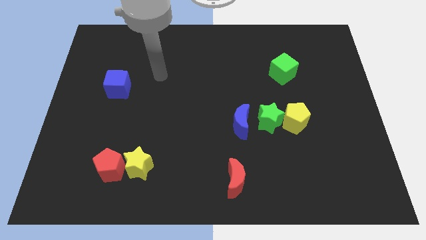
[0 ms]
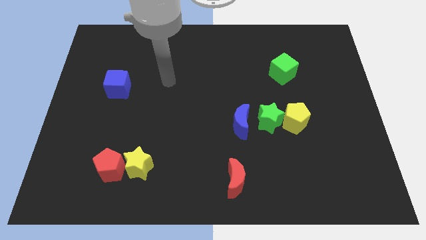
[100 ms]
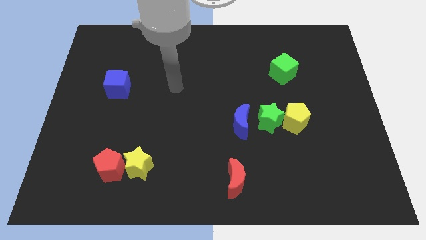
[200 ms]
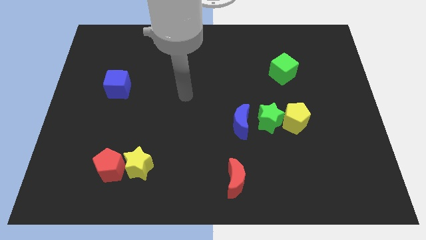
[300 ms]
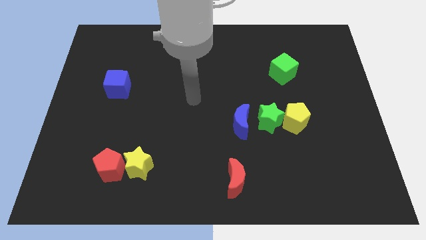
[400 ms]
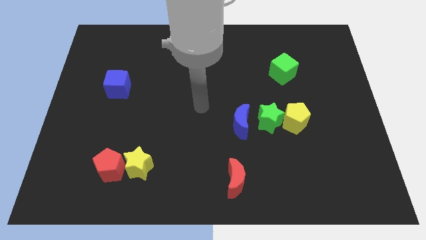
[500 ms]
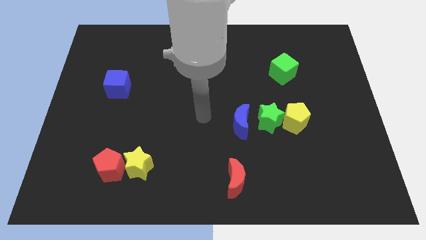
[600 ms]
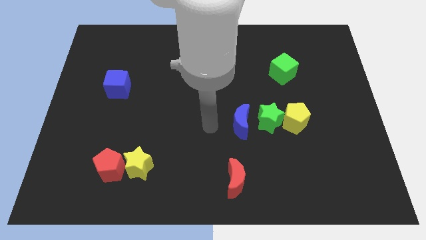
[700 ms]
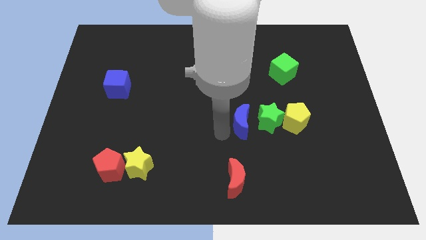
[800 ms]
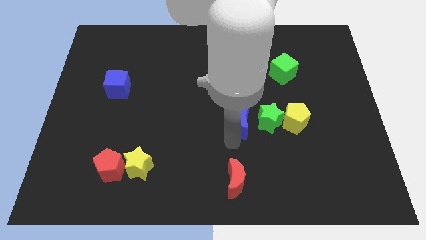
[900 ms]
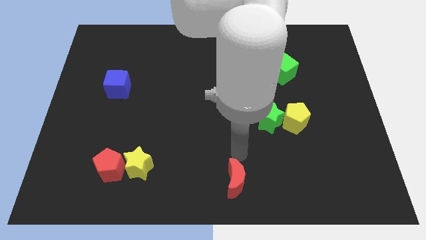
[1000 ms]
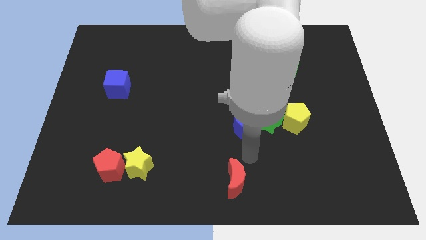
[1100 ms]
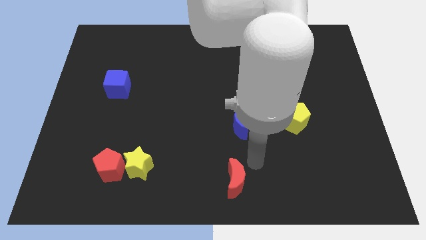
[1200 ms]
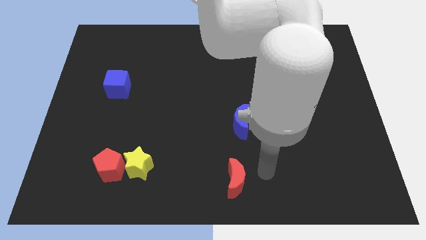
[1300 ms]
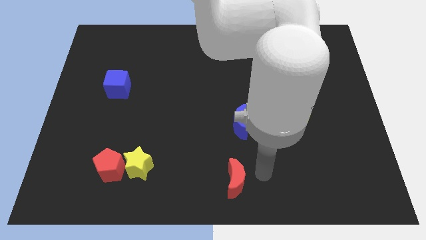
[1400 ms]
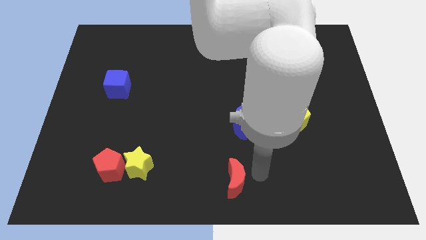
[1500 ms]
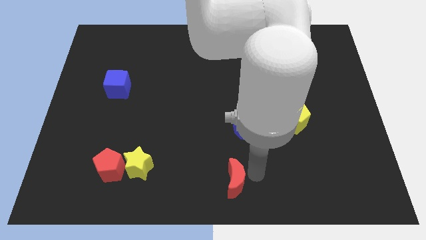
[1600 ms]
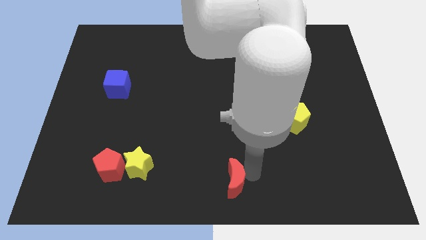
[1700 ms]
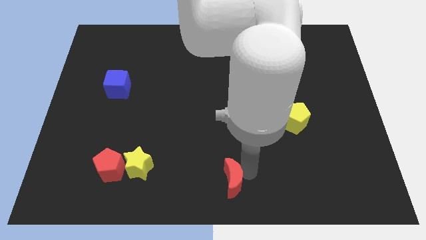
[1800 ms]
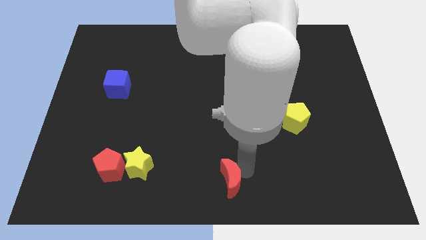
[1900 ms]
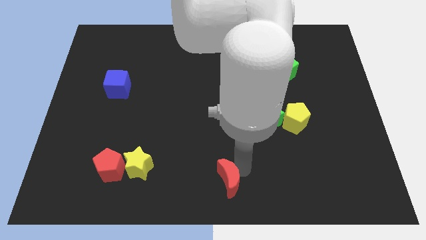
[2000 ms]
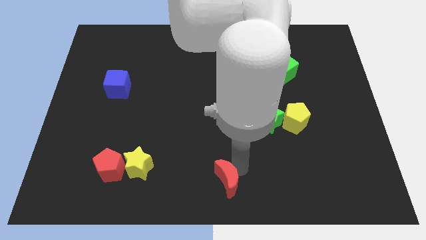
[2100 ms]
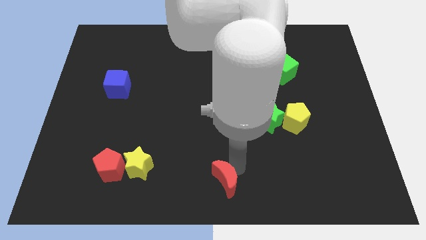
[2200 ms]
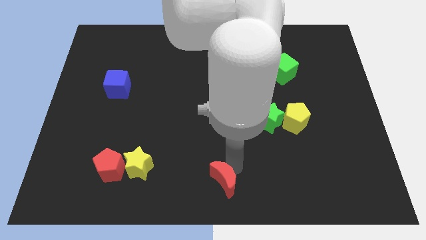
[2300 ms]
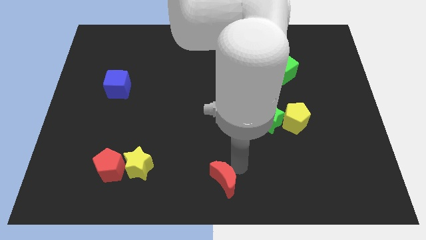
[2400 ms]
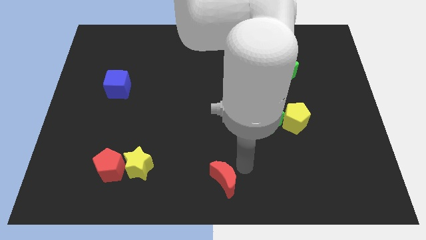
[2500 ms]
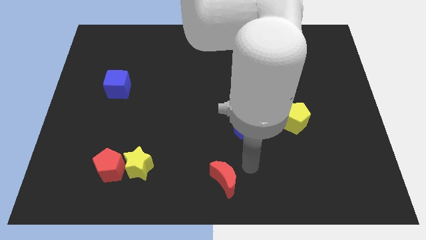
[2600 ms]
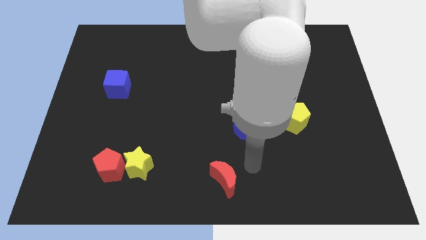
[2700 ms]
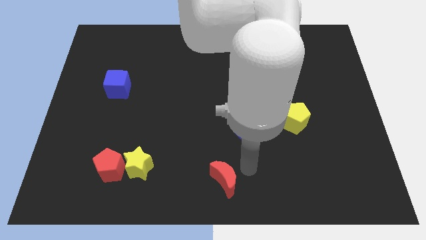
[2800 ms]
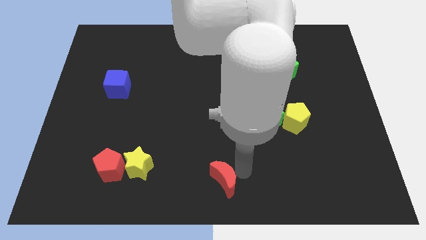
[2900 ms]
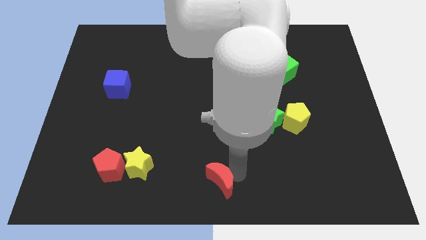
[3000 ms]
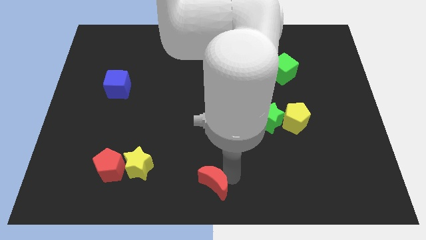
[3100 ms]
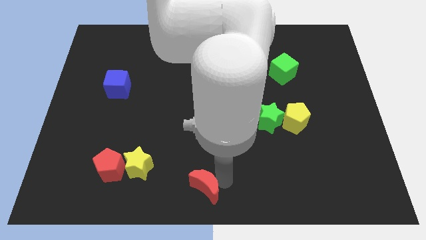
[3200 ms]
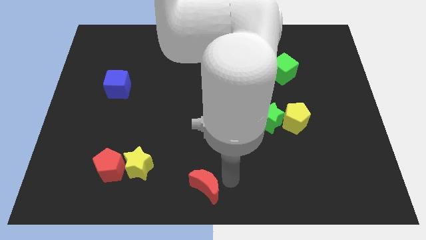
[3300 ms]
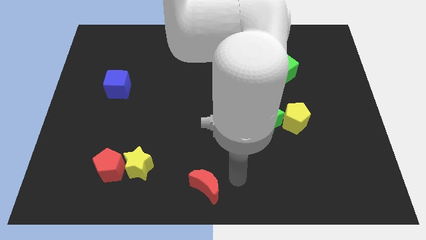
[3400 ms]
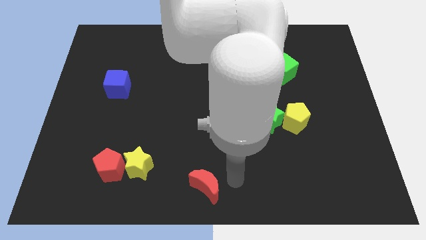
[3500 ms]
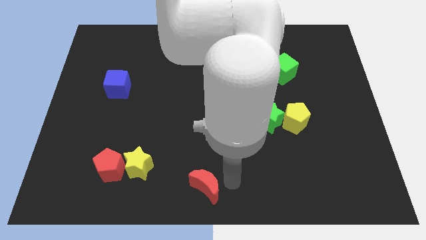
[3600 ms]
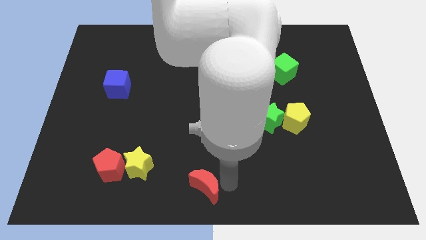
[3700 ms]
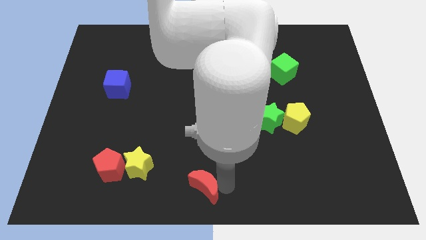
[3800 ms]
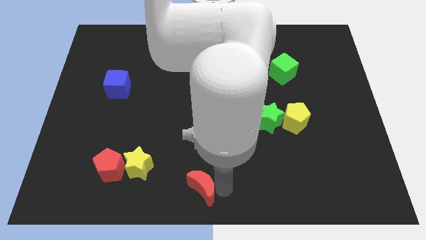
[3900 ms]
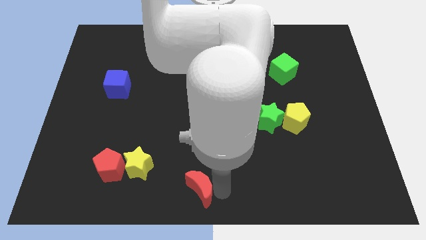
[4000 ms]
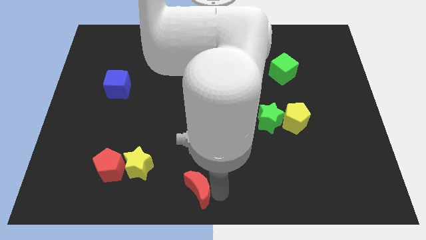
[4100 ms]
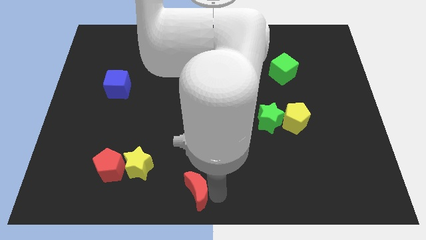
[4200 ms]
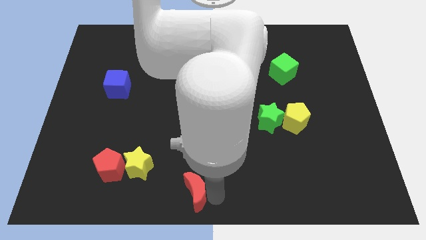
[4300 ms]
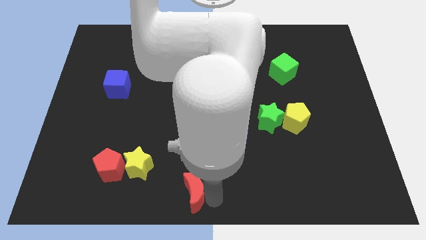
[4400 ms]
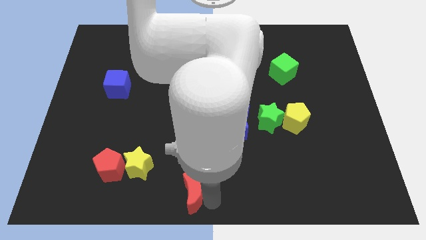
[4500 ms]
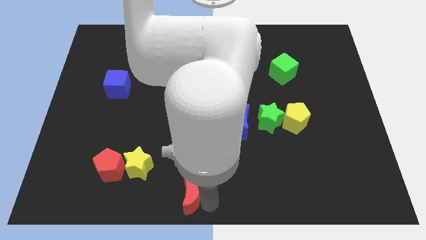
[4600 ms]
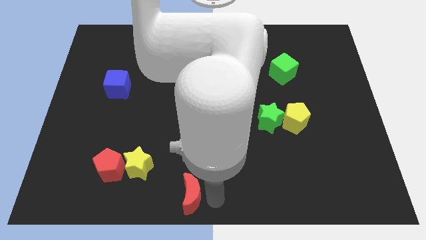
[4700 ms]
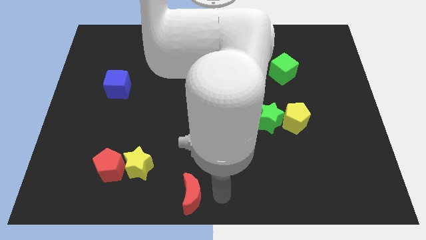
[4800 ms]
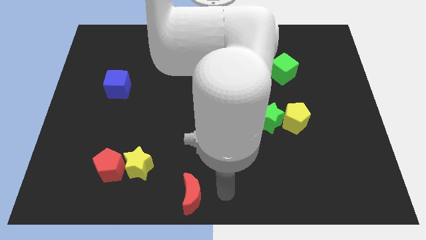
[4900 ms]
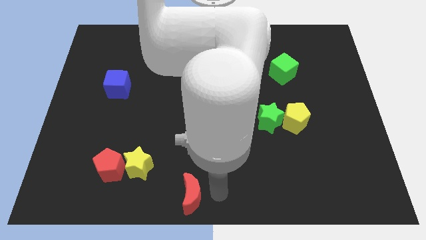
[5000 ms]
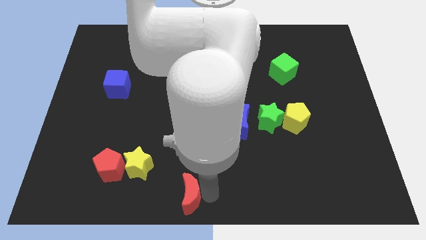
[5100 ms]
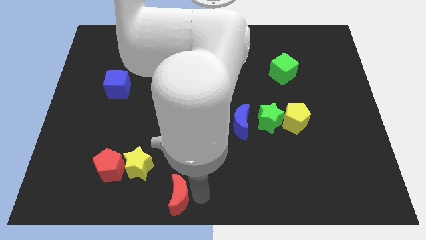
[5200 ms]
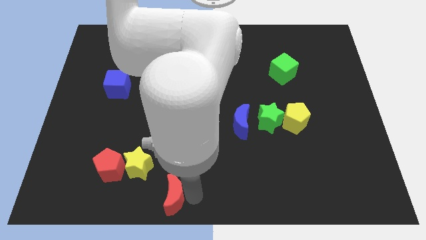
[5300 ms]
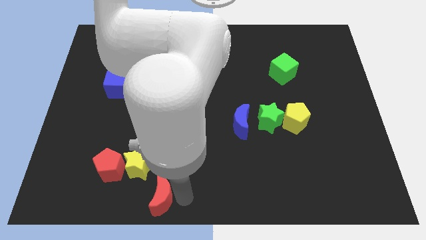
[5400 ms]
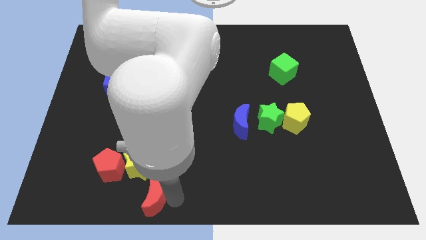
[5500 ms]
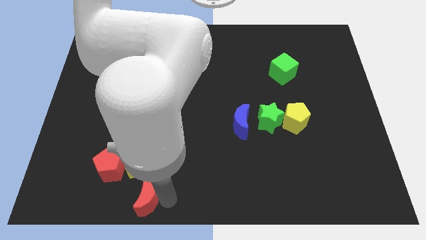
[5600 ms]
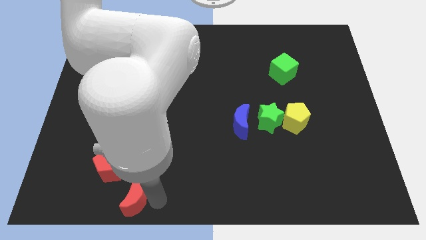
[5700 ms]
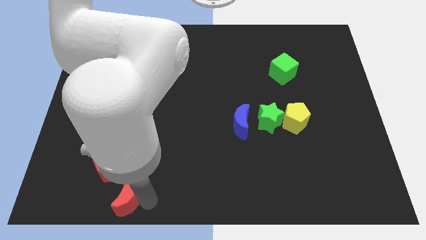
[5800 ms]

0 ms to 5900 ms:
push the red moon to the left

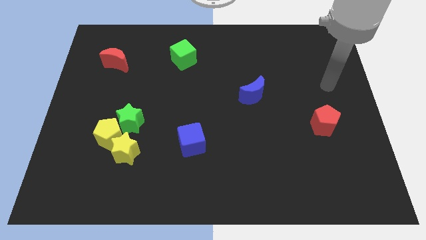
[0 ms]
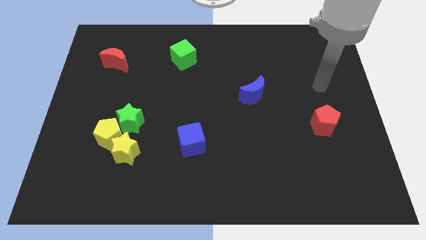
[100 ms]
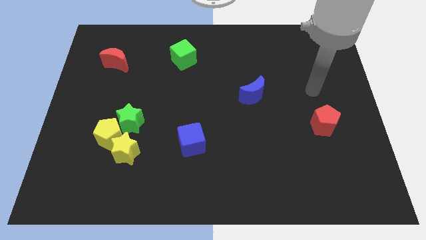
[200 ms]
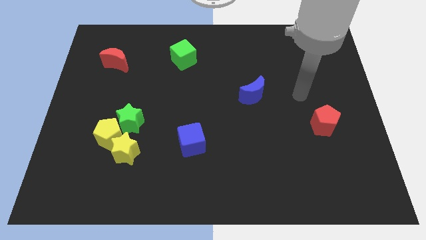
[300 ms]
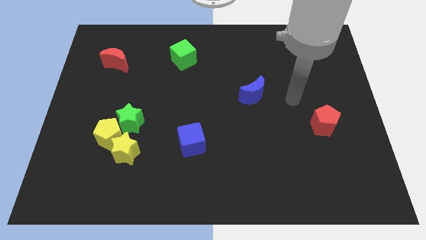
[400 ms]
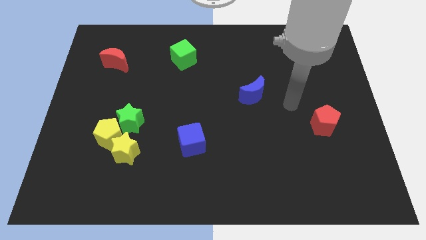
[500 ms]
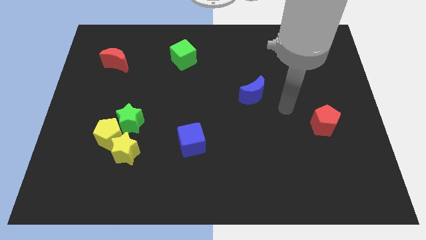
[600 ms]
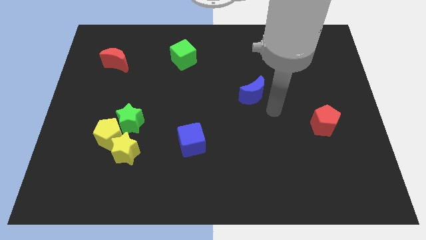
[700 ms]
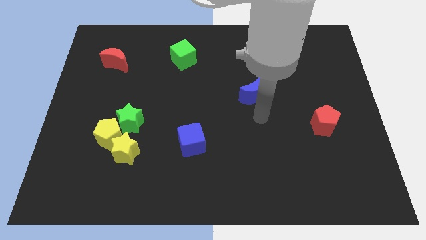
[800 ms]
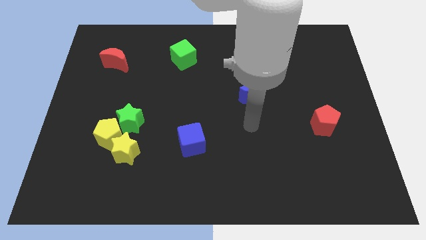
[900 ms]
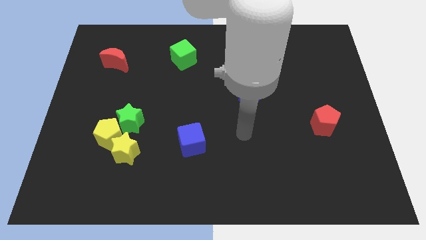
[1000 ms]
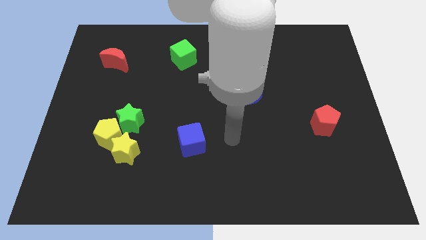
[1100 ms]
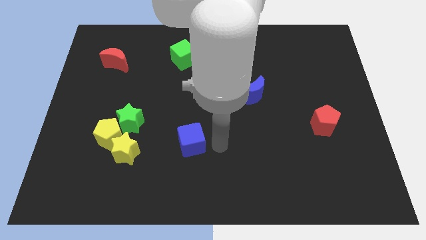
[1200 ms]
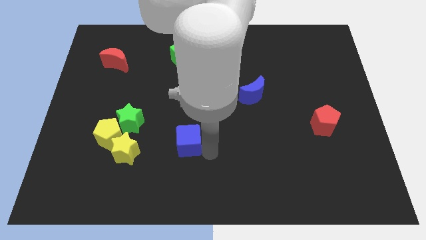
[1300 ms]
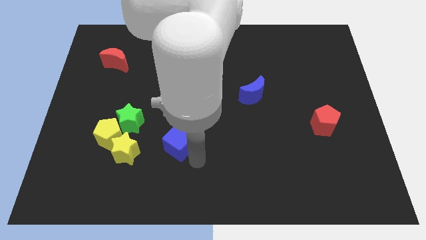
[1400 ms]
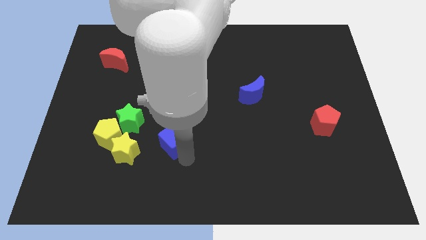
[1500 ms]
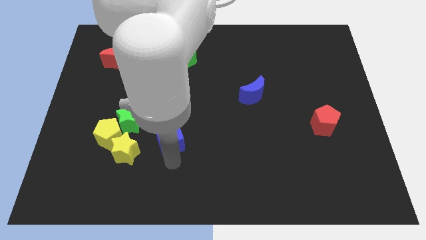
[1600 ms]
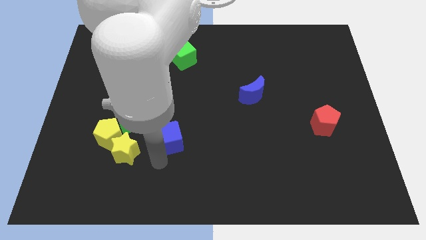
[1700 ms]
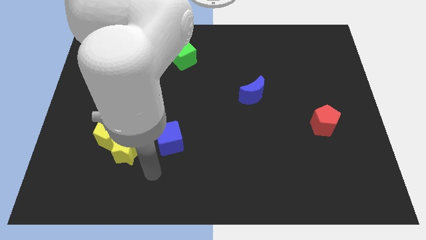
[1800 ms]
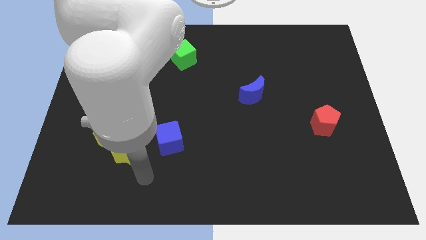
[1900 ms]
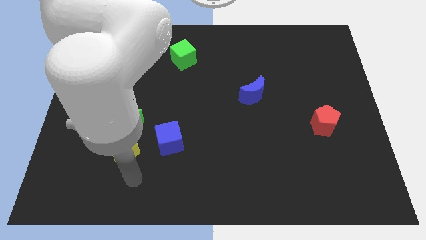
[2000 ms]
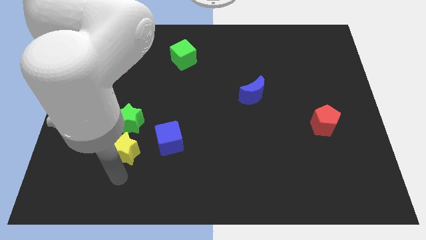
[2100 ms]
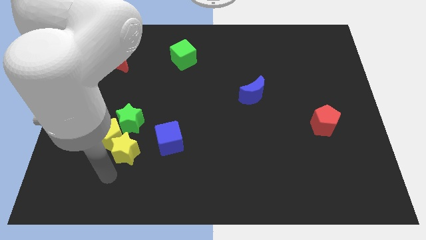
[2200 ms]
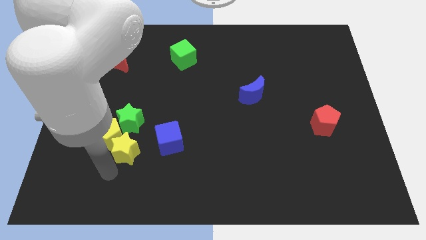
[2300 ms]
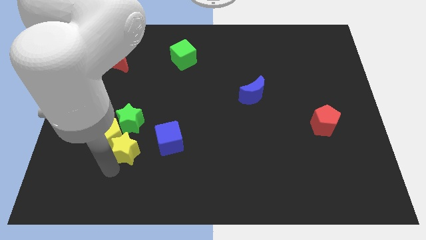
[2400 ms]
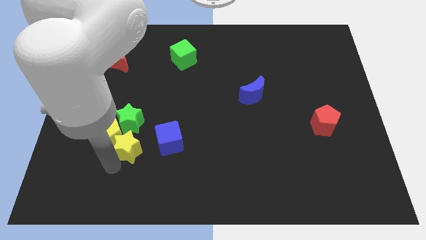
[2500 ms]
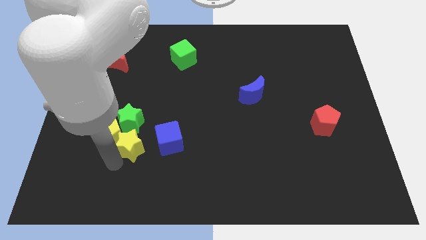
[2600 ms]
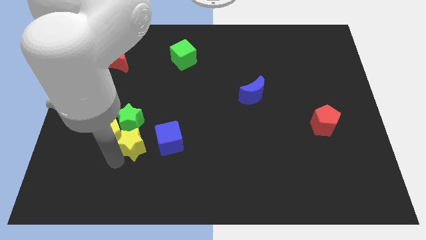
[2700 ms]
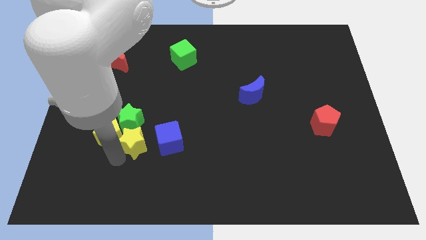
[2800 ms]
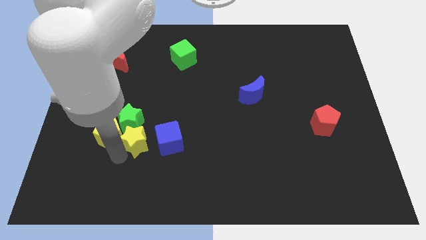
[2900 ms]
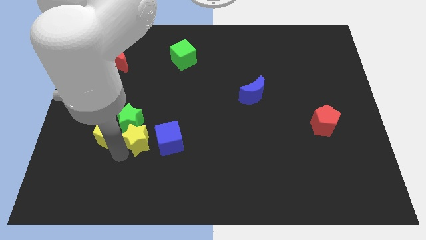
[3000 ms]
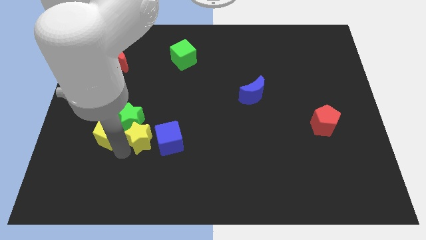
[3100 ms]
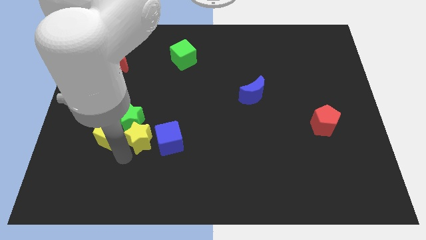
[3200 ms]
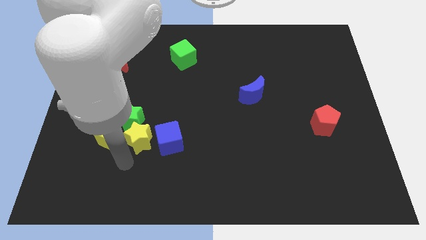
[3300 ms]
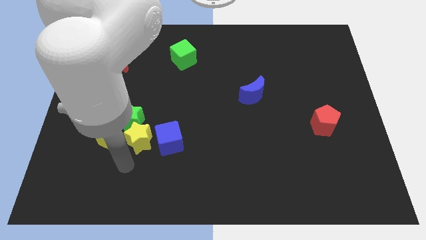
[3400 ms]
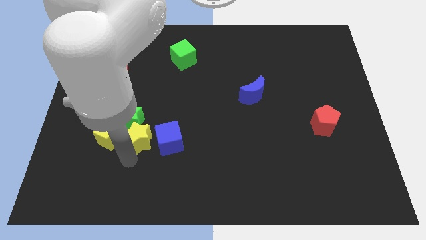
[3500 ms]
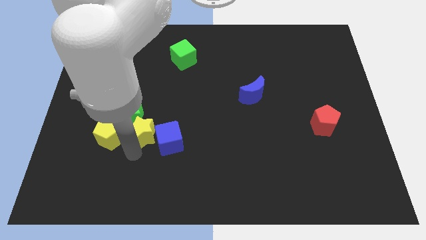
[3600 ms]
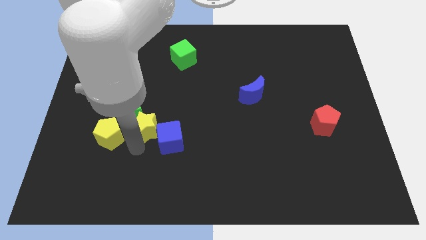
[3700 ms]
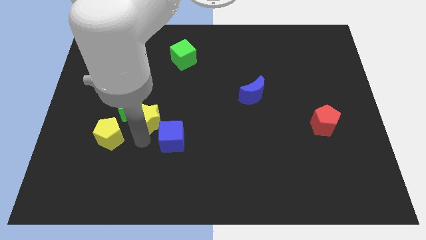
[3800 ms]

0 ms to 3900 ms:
slide the yellow star upwards a bit
